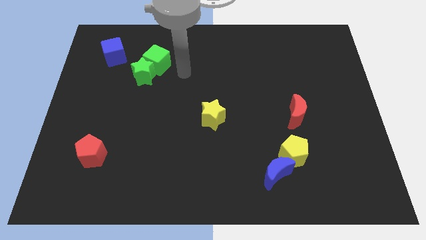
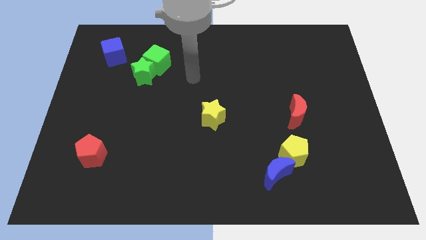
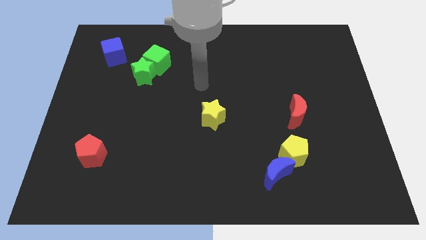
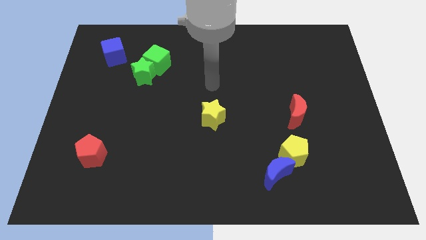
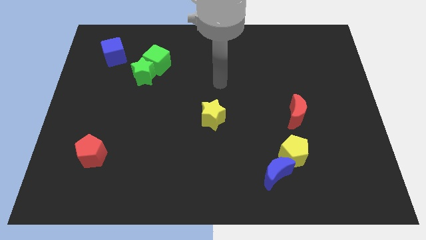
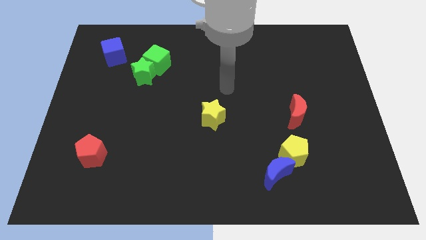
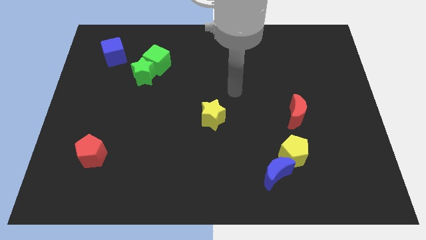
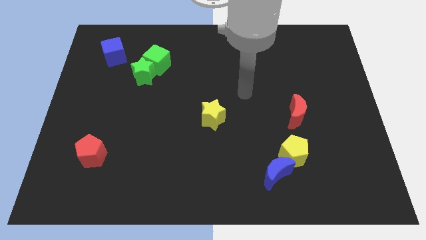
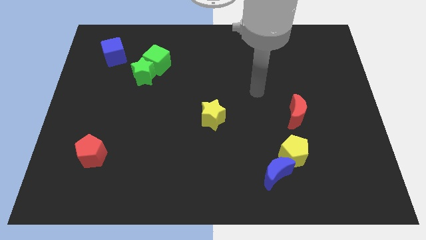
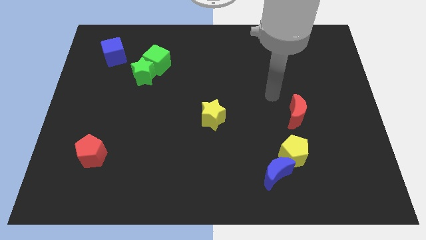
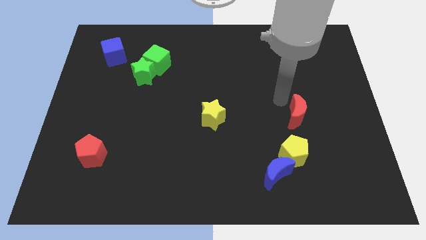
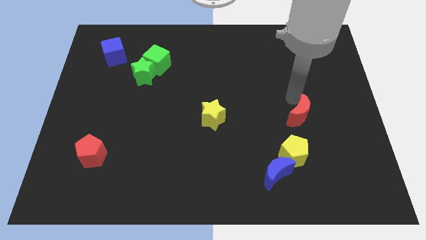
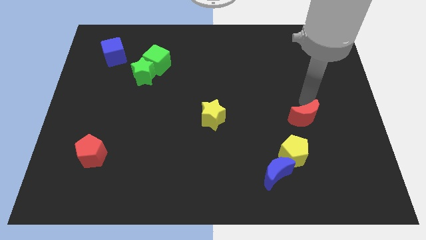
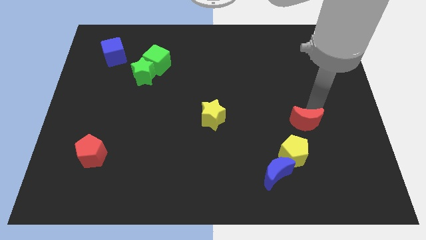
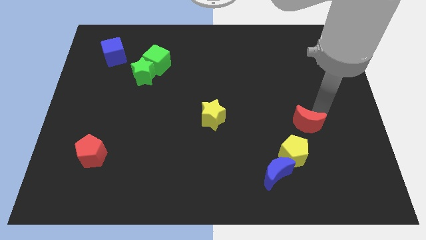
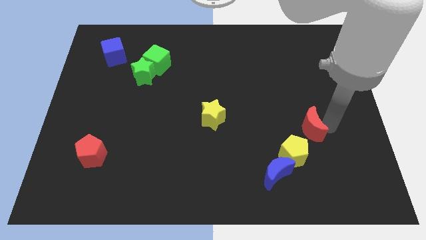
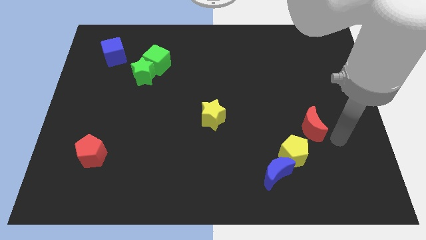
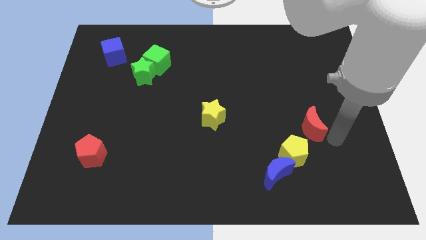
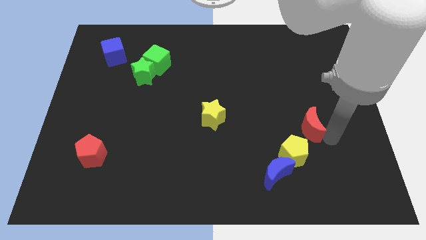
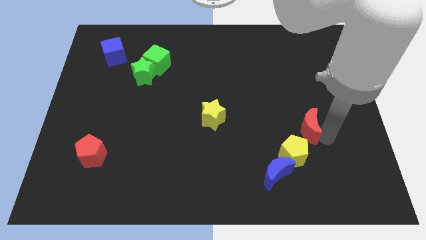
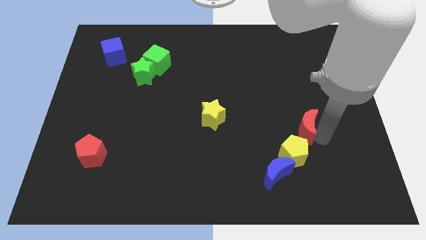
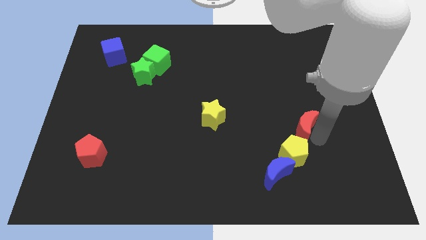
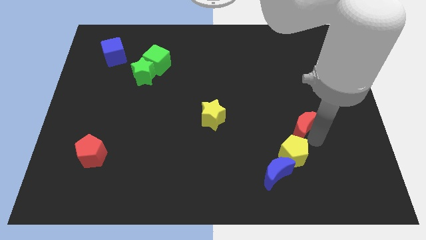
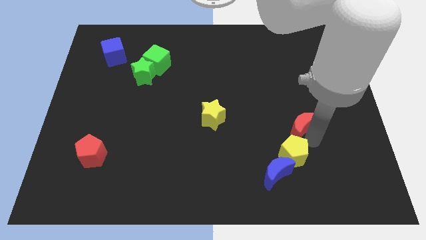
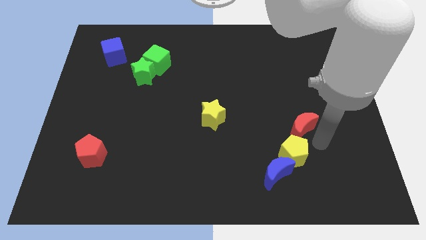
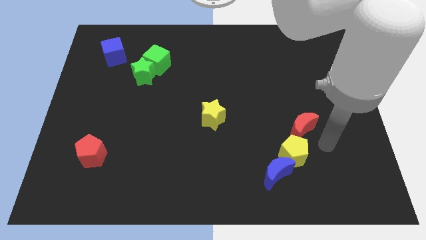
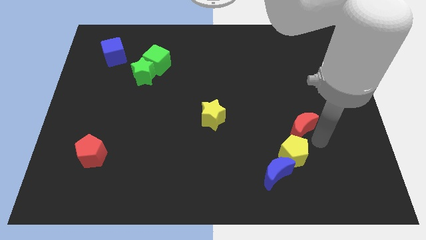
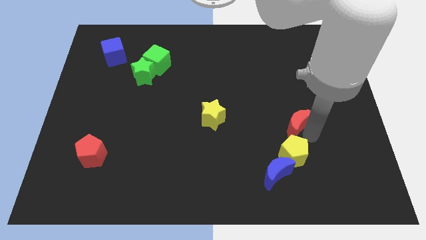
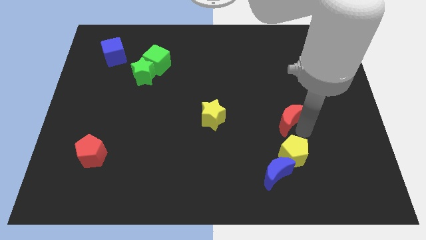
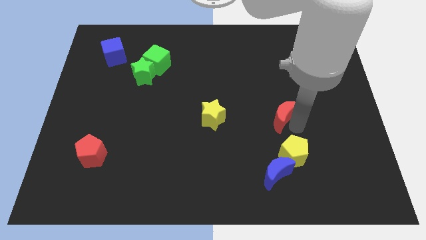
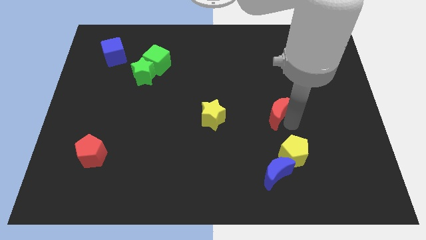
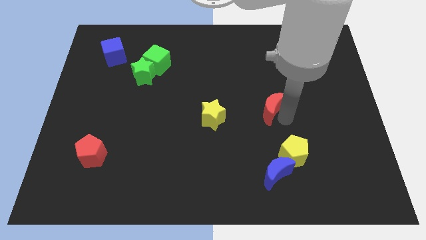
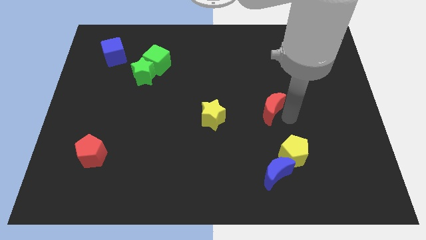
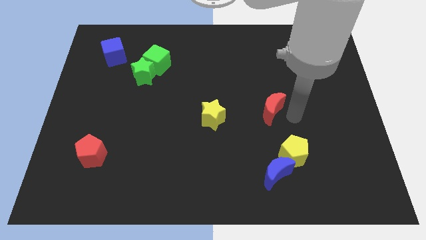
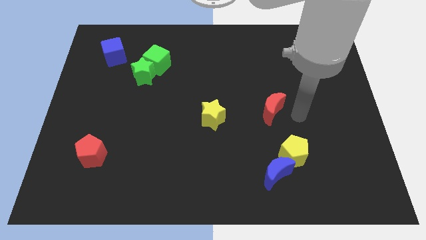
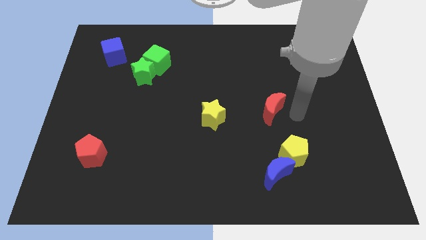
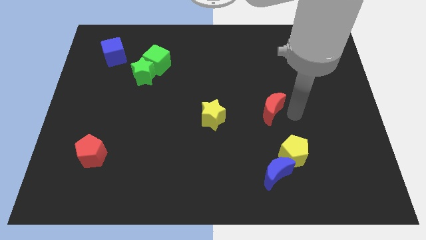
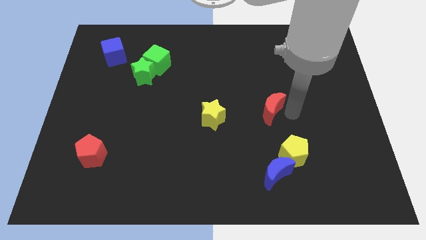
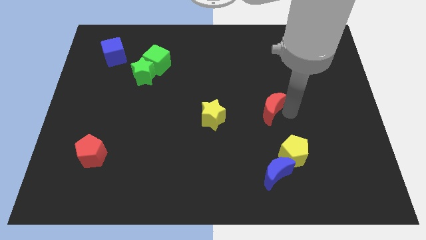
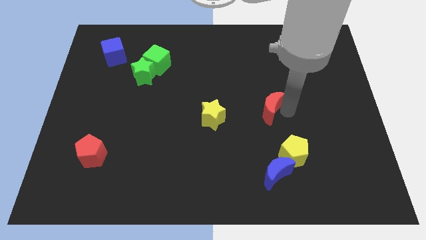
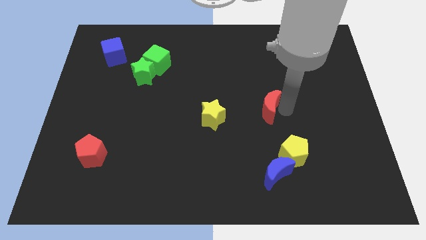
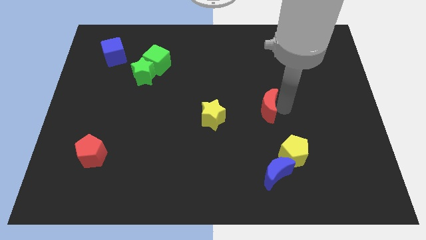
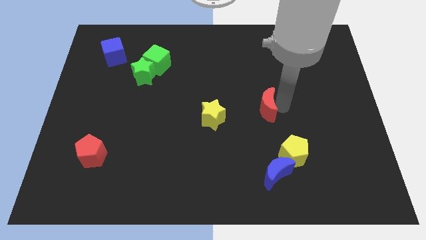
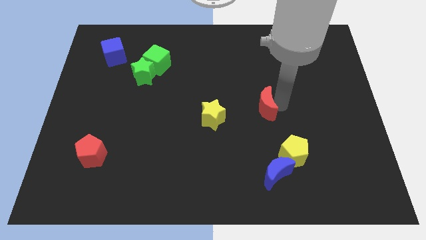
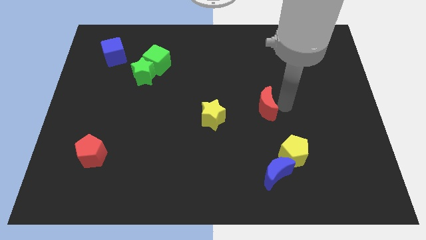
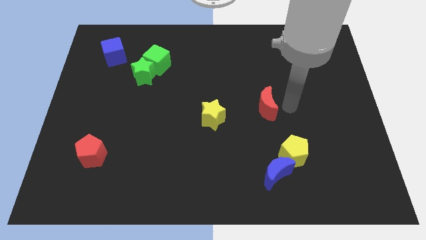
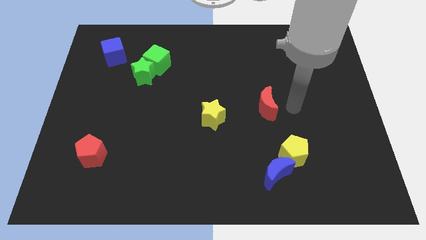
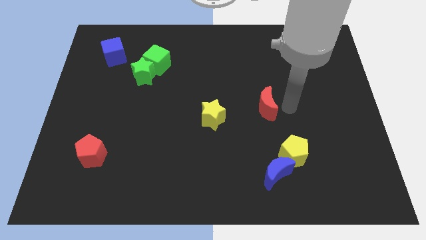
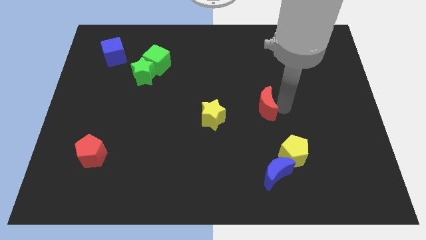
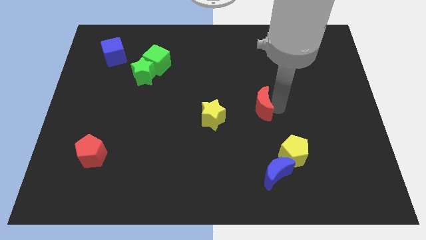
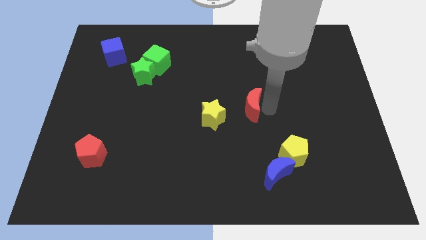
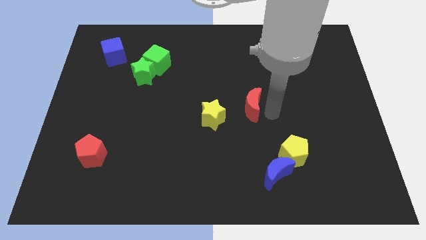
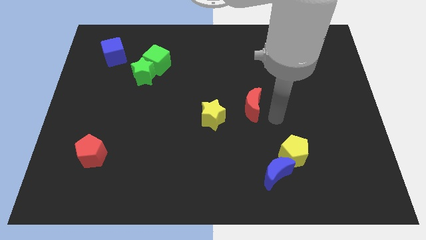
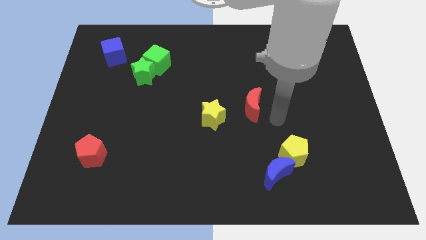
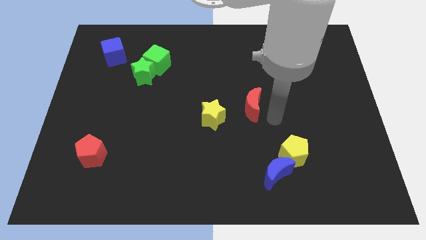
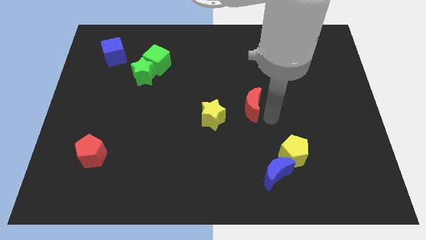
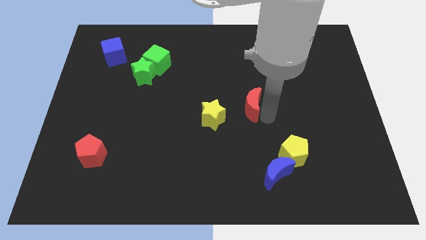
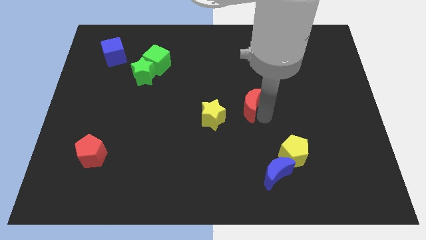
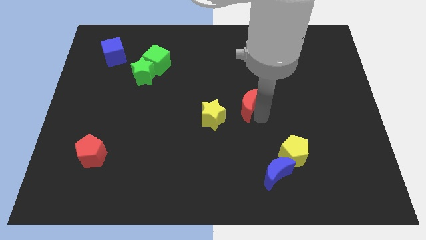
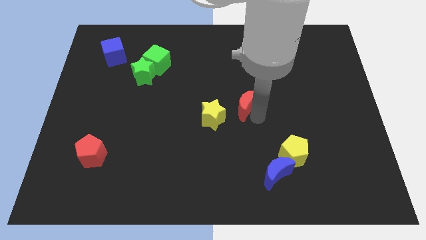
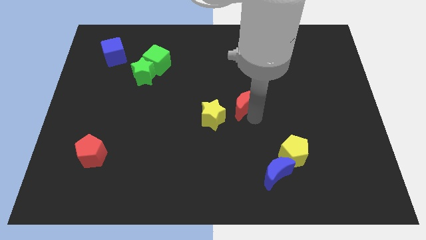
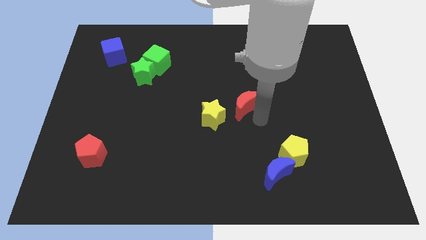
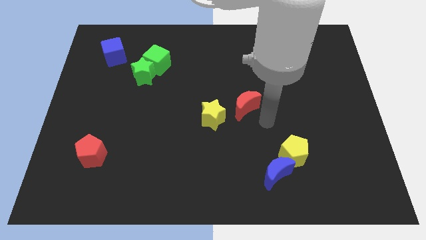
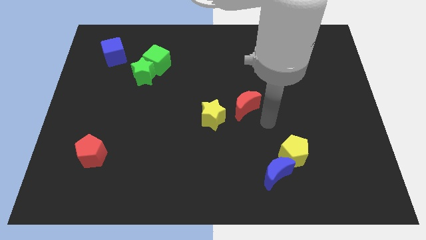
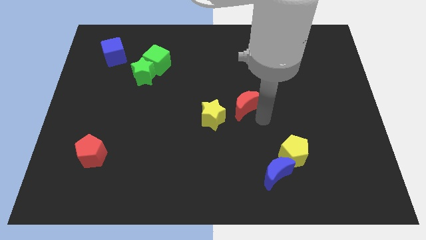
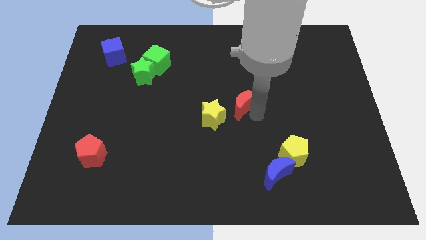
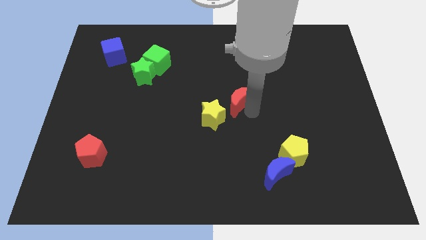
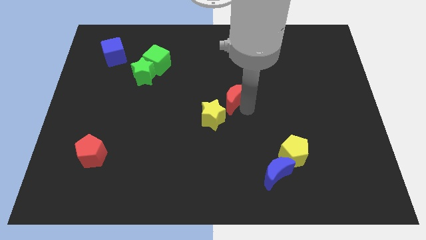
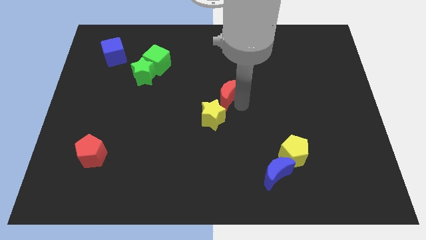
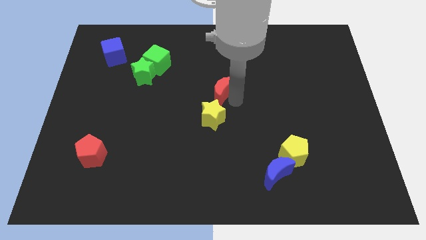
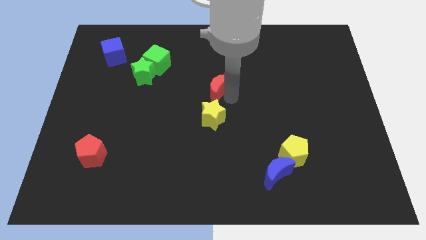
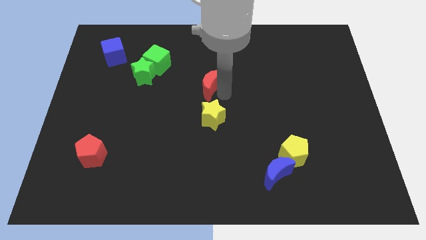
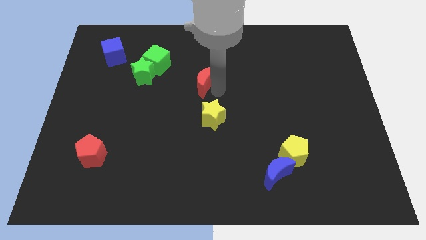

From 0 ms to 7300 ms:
put the red moon right of the green star

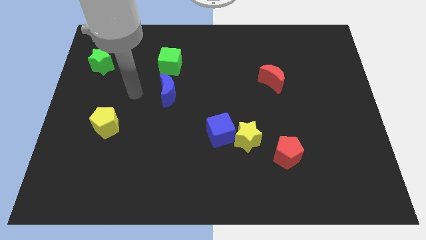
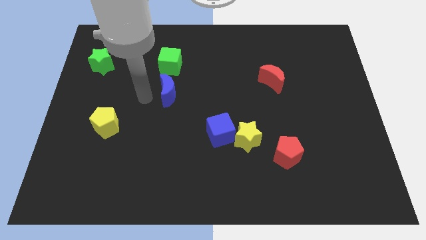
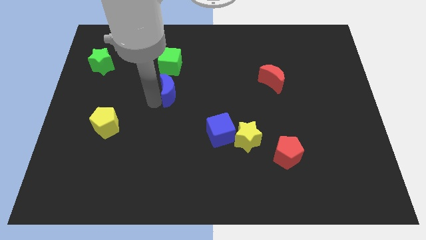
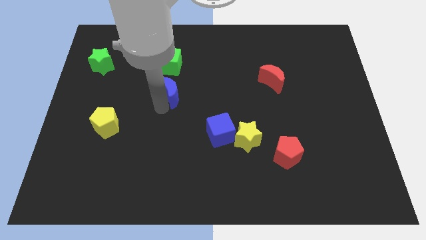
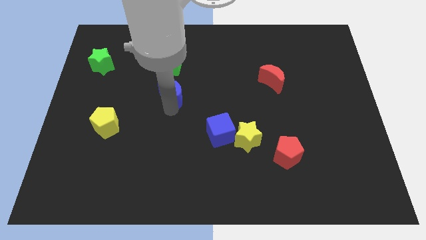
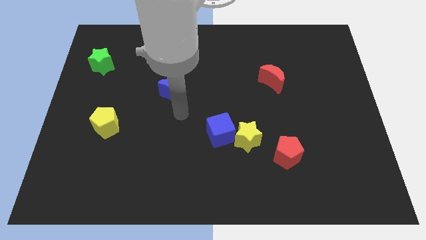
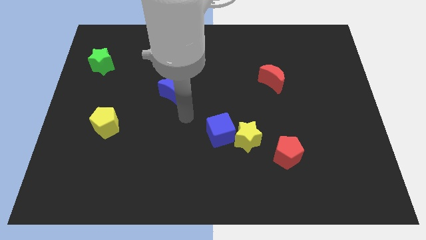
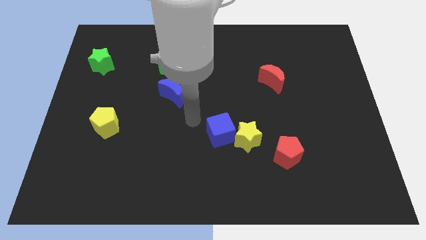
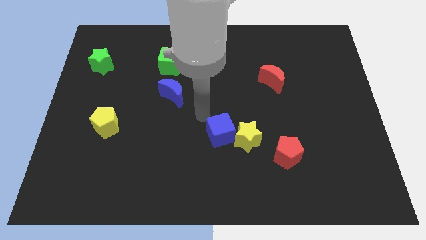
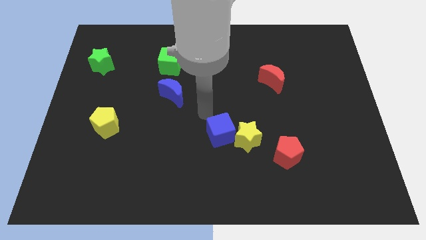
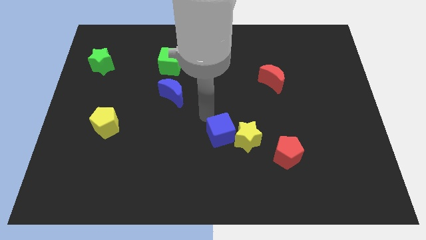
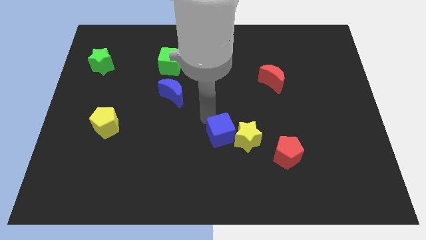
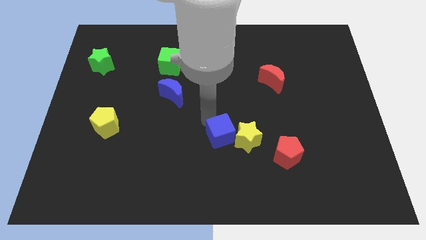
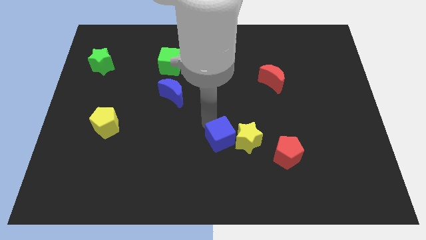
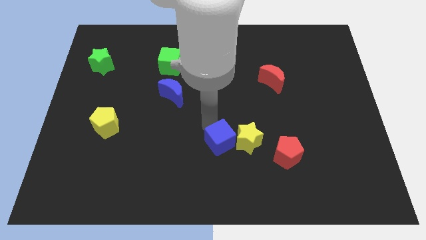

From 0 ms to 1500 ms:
slide the blue cube to the left side of the red pentagon
